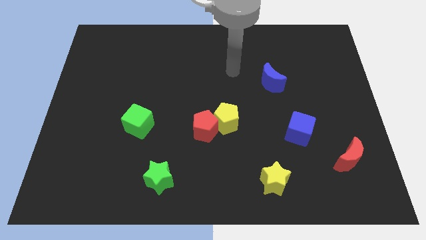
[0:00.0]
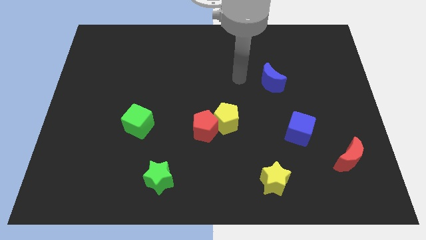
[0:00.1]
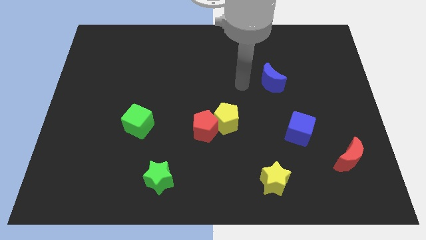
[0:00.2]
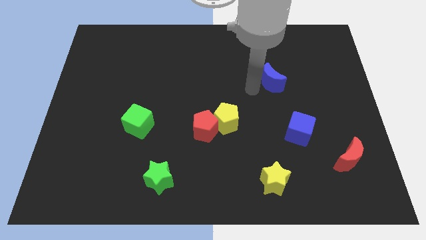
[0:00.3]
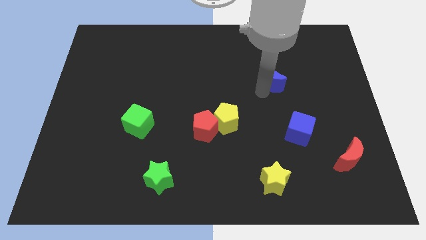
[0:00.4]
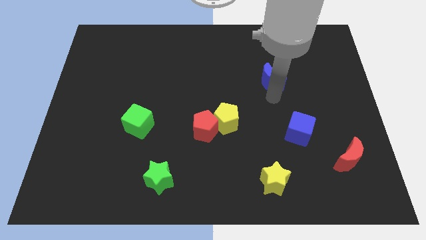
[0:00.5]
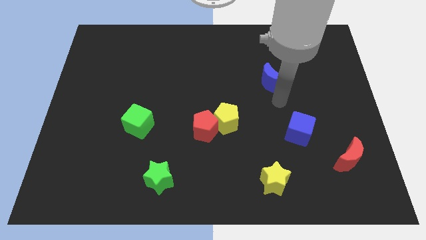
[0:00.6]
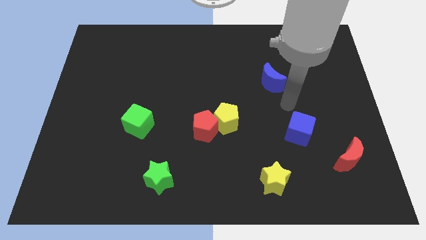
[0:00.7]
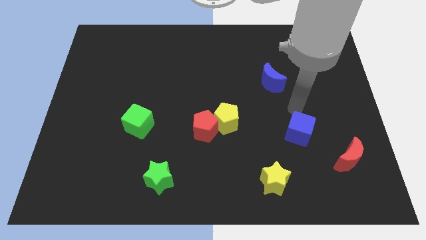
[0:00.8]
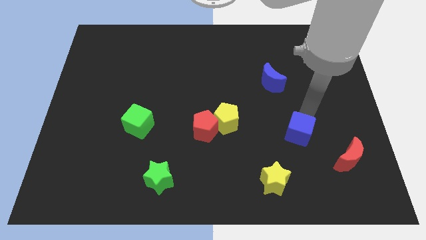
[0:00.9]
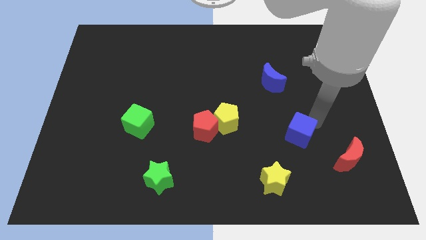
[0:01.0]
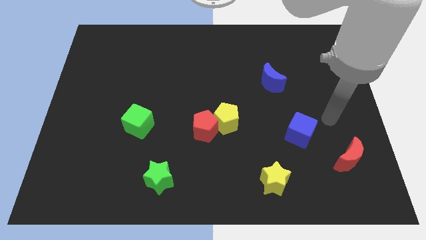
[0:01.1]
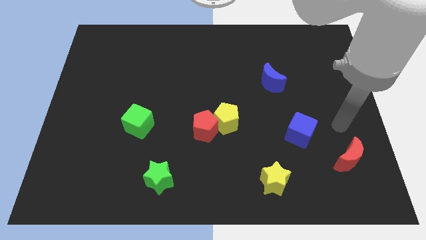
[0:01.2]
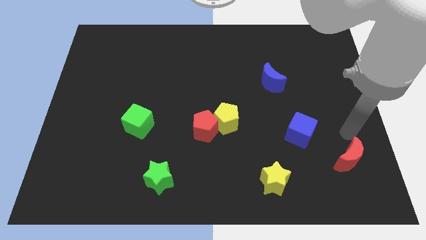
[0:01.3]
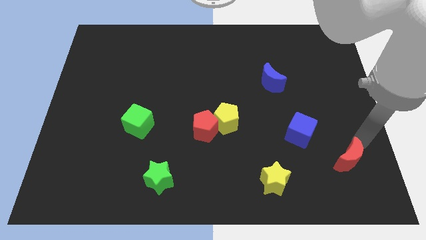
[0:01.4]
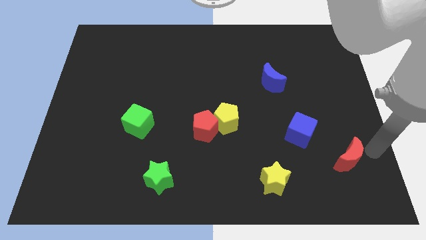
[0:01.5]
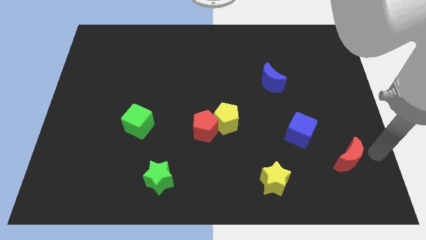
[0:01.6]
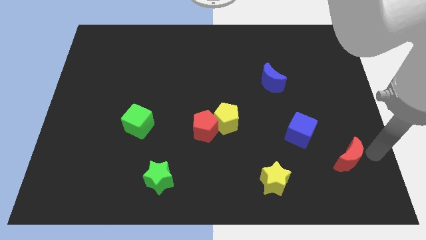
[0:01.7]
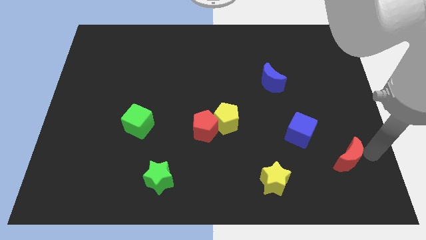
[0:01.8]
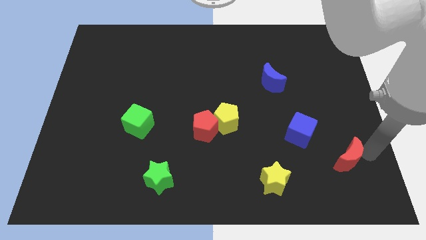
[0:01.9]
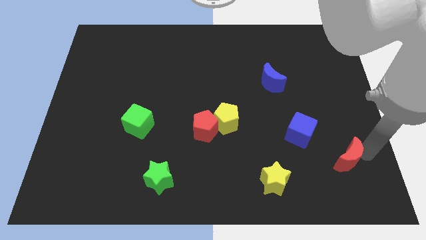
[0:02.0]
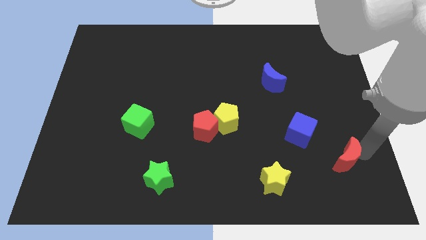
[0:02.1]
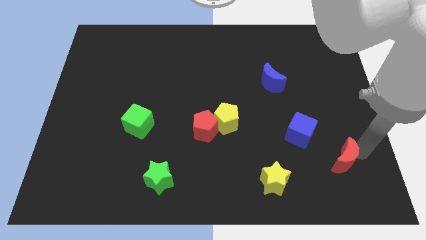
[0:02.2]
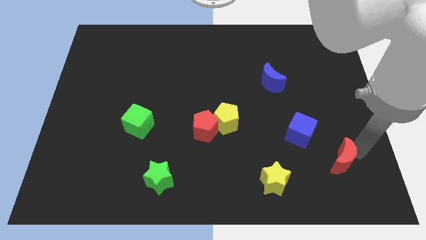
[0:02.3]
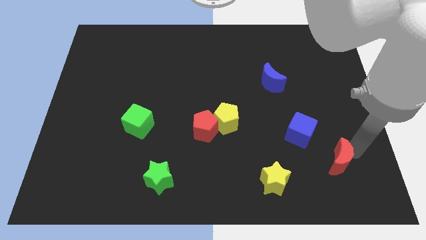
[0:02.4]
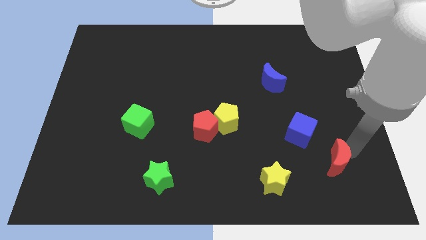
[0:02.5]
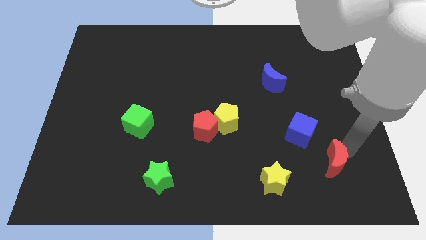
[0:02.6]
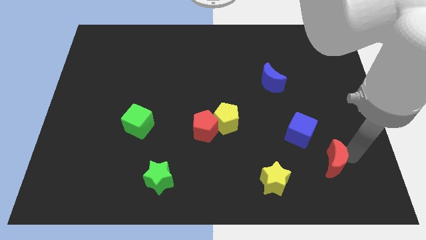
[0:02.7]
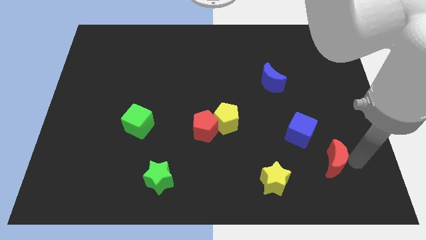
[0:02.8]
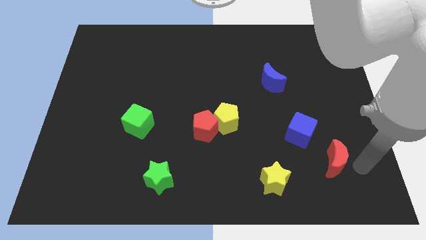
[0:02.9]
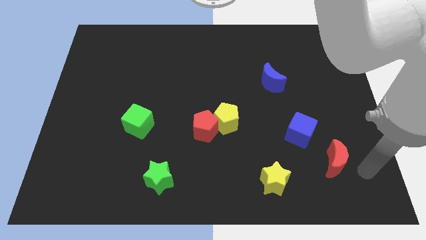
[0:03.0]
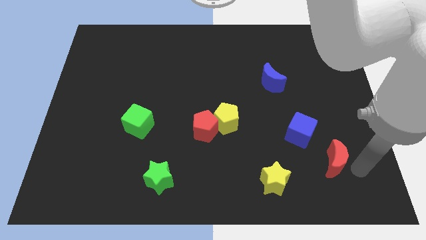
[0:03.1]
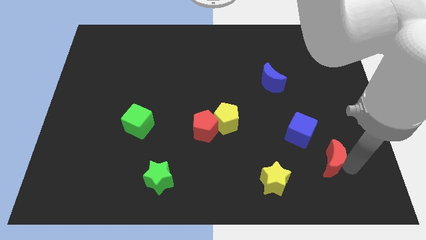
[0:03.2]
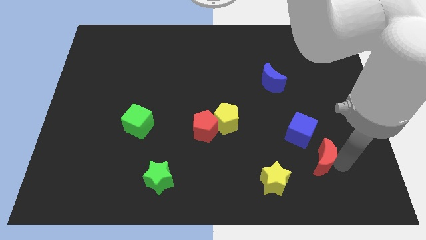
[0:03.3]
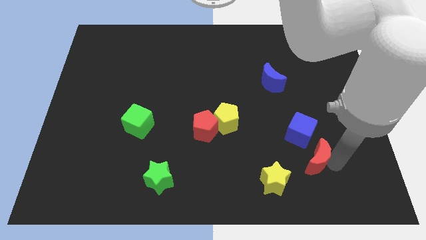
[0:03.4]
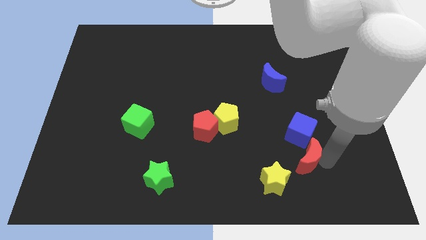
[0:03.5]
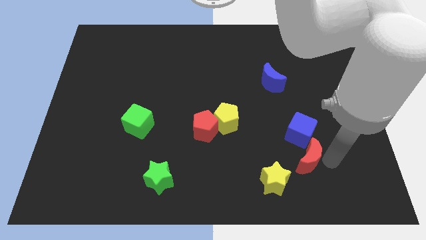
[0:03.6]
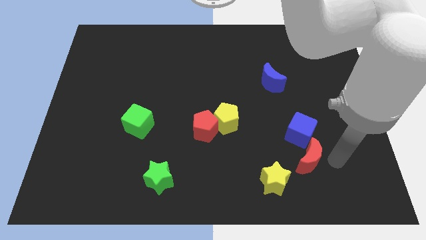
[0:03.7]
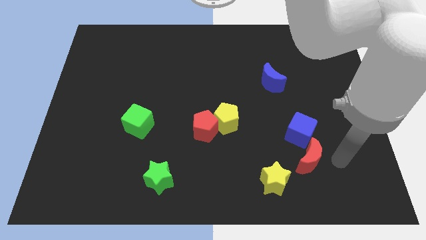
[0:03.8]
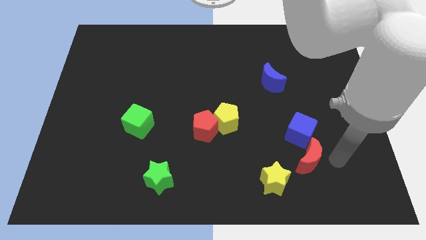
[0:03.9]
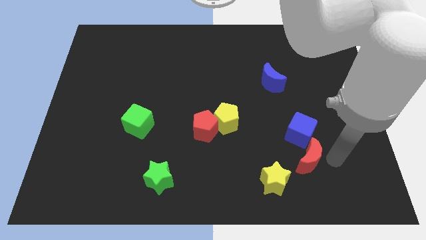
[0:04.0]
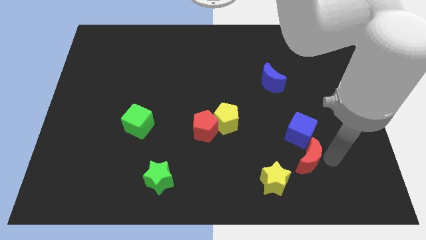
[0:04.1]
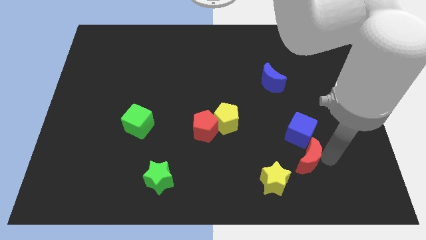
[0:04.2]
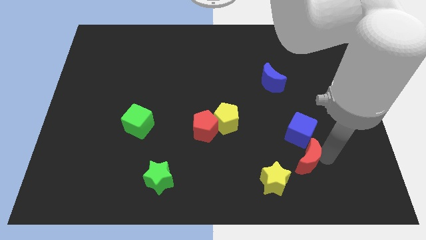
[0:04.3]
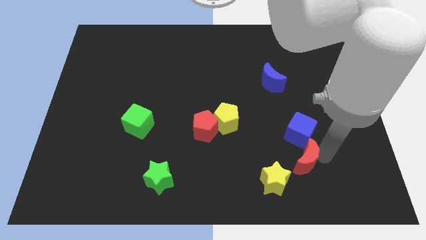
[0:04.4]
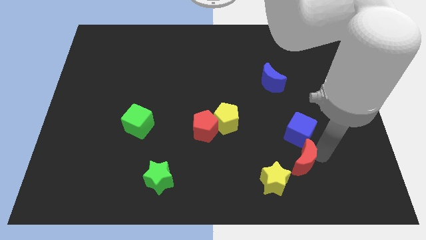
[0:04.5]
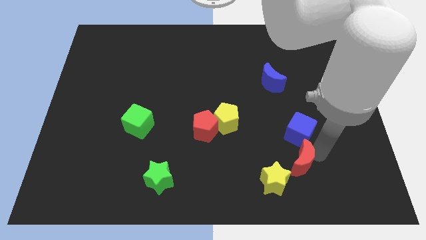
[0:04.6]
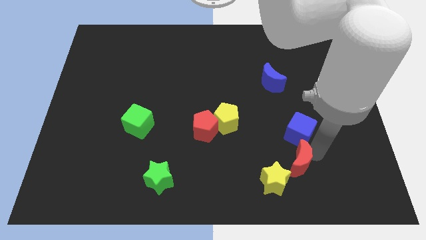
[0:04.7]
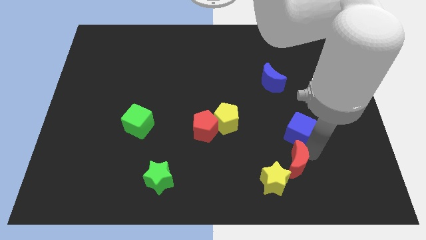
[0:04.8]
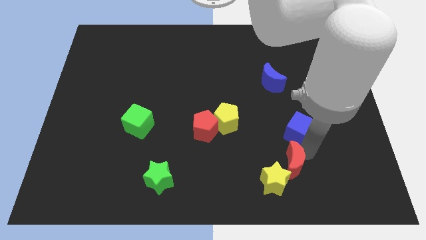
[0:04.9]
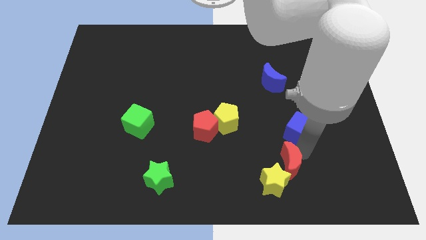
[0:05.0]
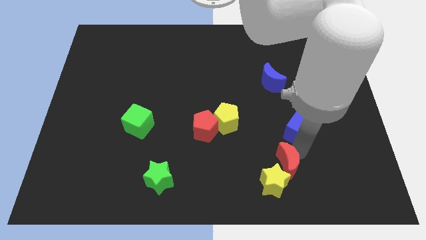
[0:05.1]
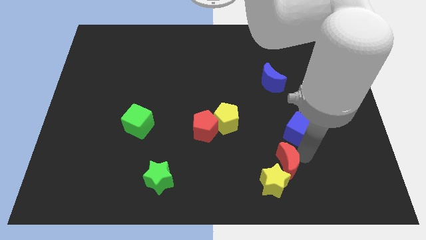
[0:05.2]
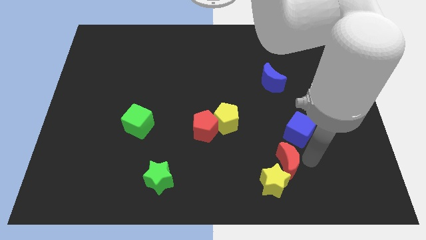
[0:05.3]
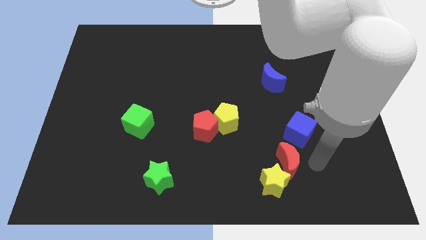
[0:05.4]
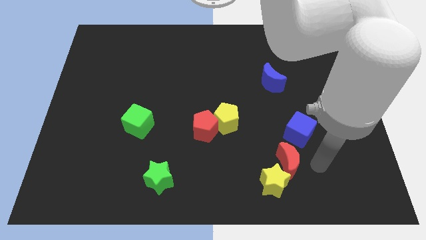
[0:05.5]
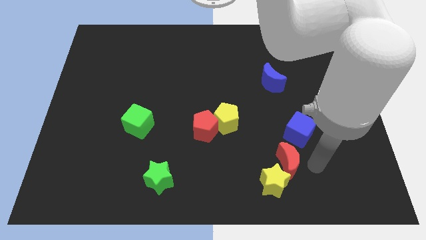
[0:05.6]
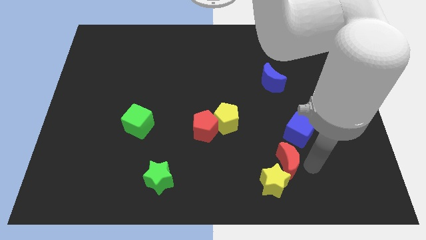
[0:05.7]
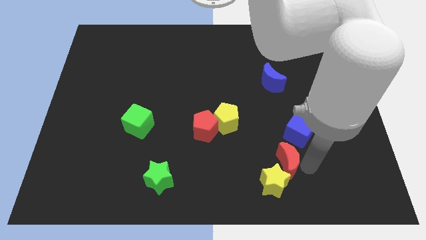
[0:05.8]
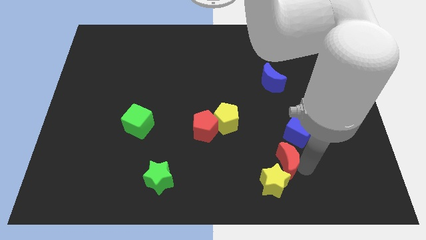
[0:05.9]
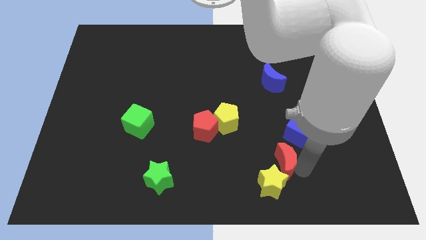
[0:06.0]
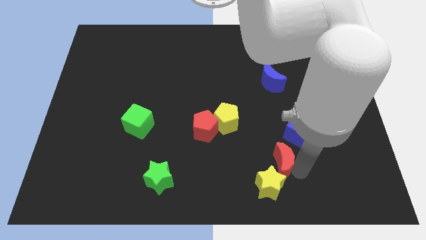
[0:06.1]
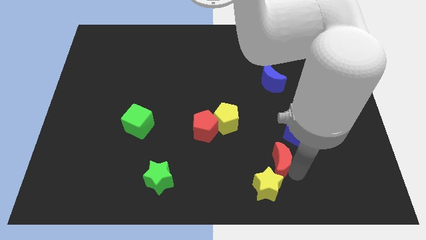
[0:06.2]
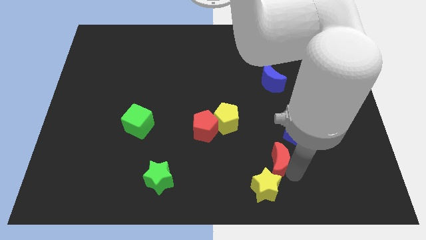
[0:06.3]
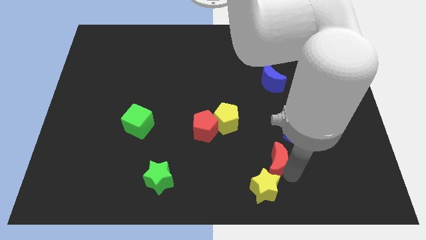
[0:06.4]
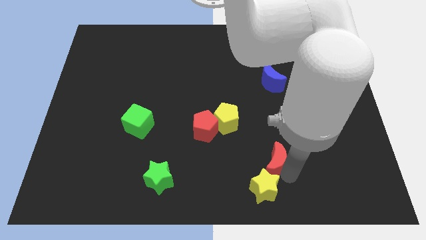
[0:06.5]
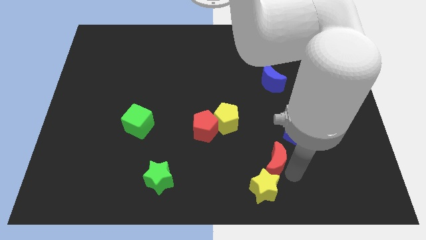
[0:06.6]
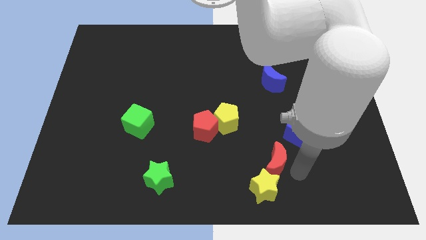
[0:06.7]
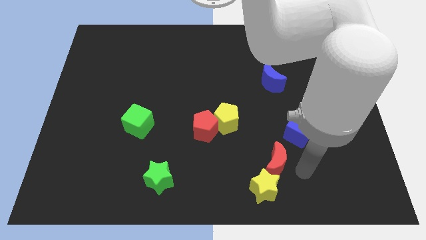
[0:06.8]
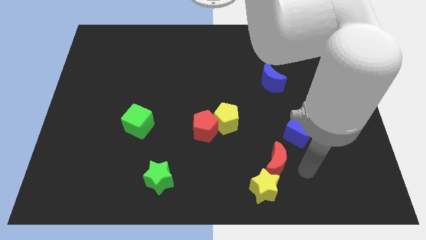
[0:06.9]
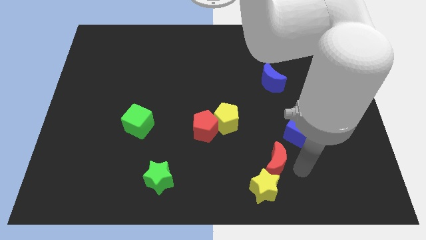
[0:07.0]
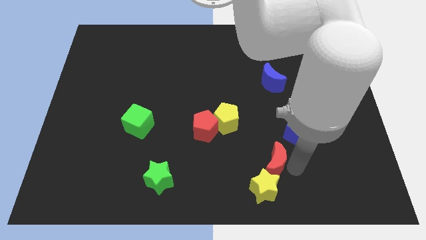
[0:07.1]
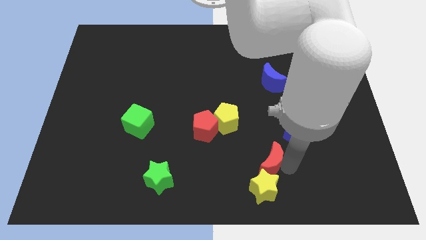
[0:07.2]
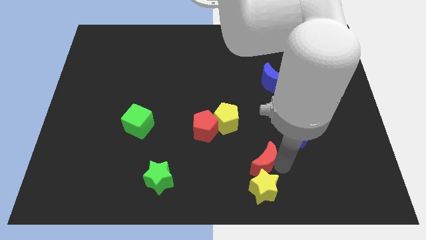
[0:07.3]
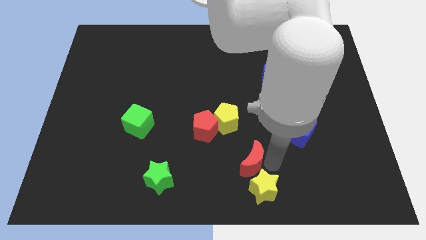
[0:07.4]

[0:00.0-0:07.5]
slide the red moon left

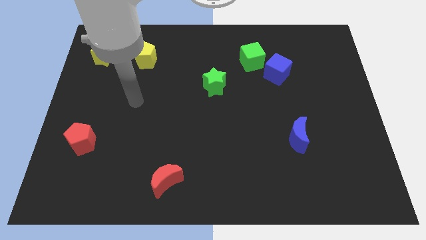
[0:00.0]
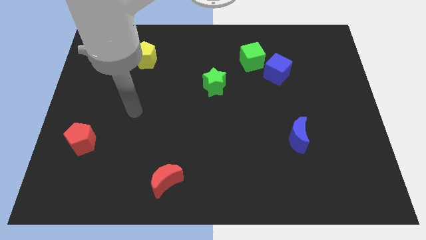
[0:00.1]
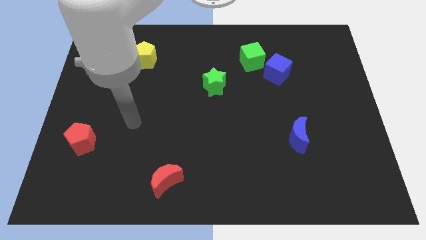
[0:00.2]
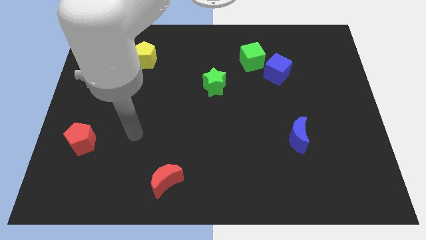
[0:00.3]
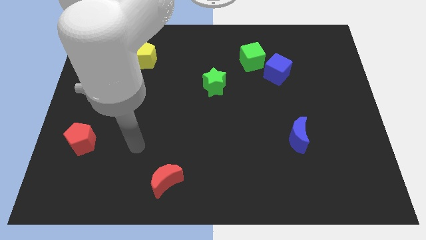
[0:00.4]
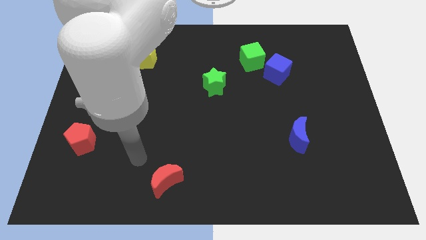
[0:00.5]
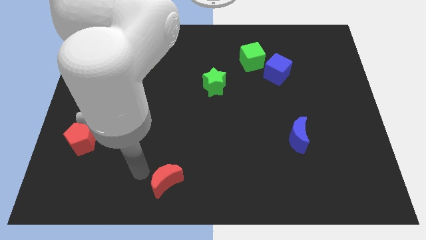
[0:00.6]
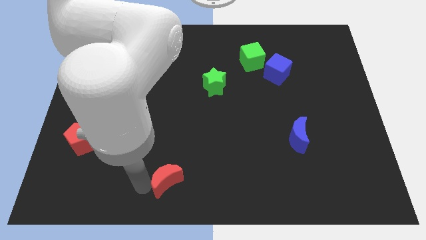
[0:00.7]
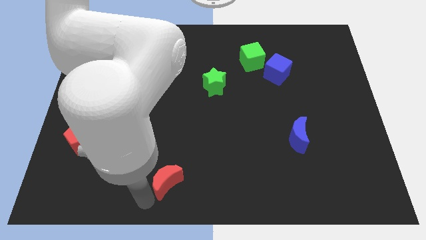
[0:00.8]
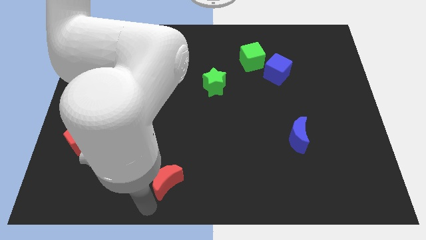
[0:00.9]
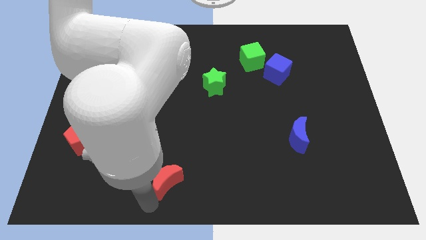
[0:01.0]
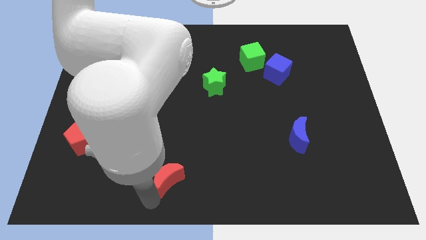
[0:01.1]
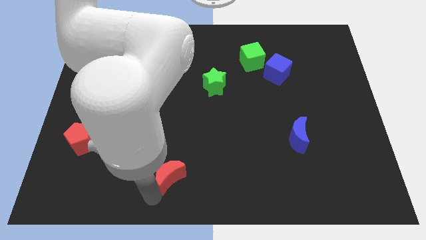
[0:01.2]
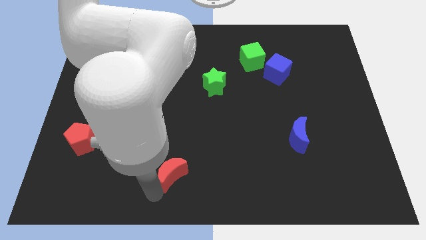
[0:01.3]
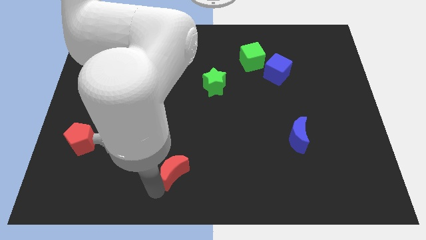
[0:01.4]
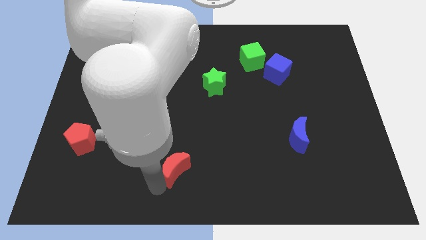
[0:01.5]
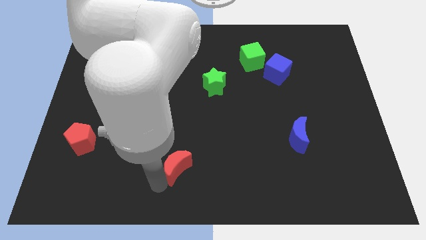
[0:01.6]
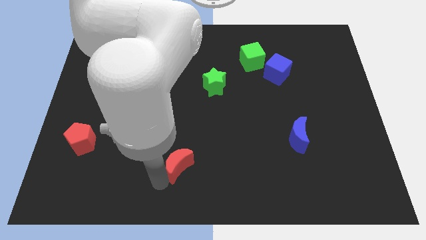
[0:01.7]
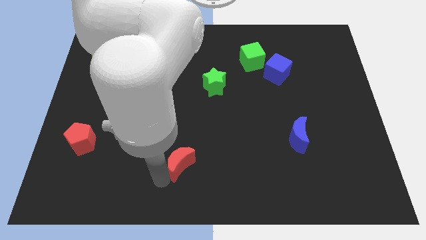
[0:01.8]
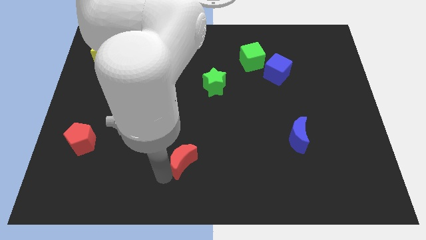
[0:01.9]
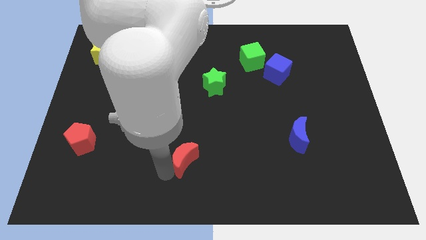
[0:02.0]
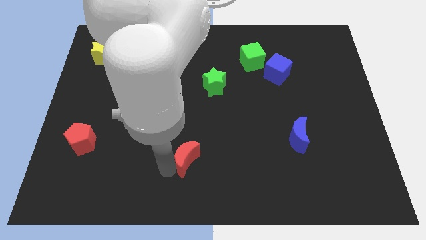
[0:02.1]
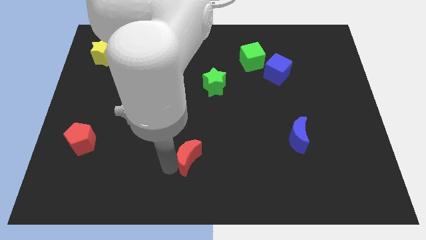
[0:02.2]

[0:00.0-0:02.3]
slide the red moon up and right a bit
